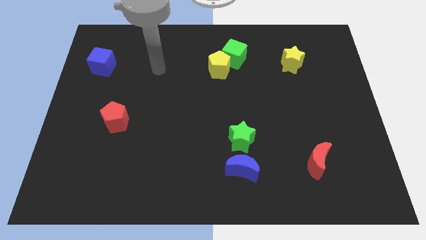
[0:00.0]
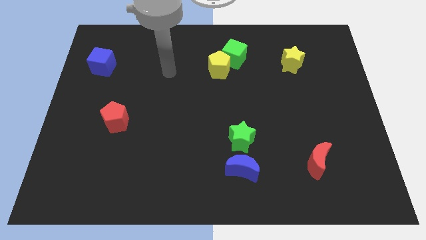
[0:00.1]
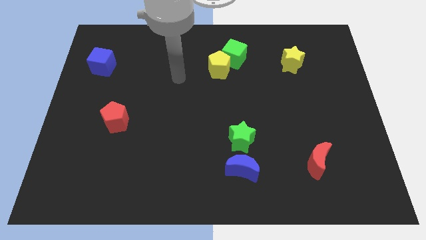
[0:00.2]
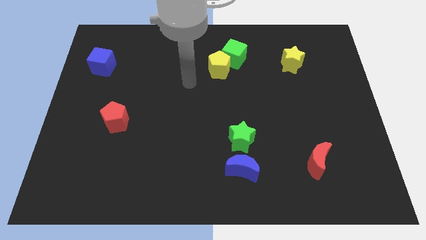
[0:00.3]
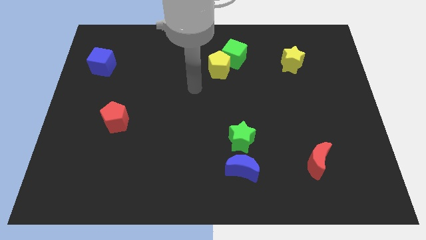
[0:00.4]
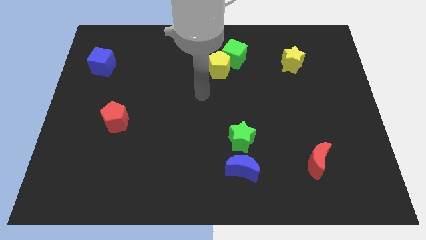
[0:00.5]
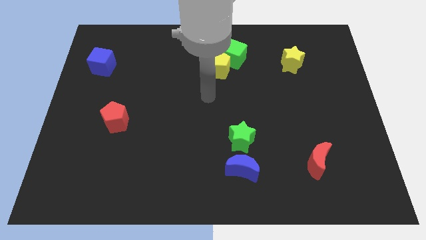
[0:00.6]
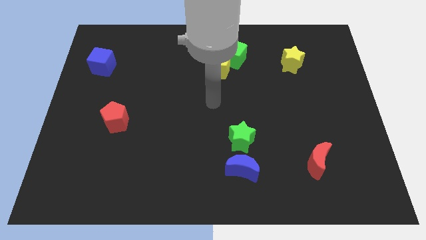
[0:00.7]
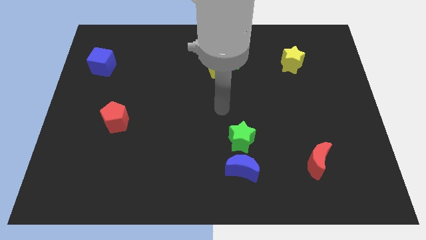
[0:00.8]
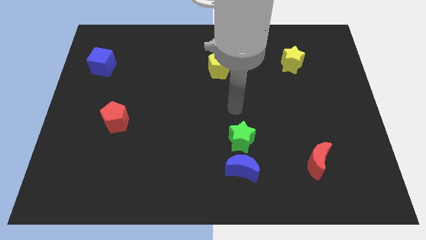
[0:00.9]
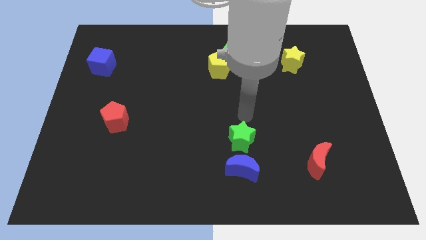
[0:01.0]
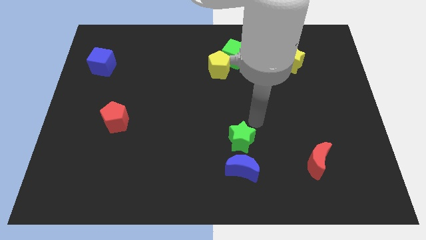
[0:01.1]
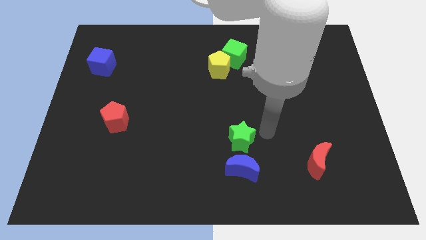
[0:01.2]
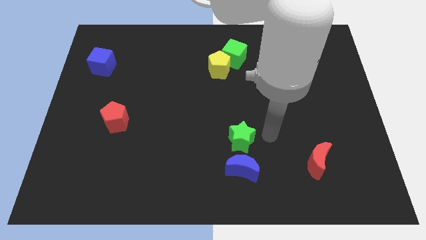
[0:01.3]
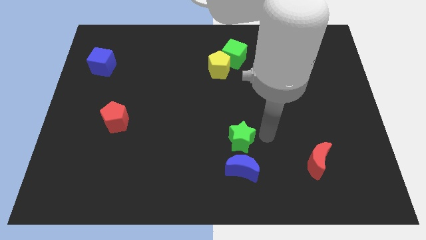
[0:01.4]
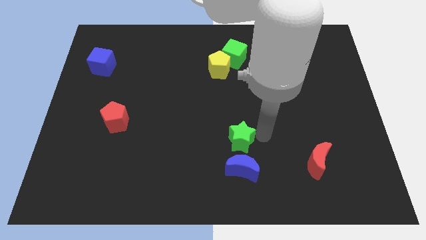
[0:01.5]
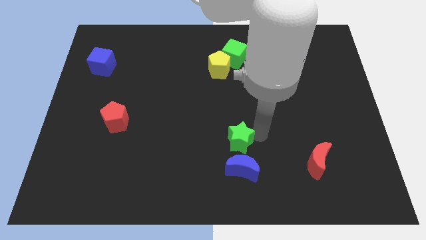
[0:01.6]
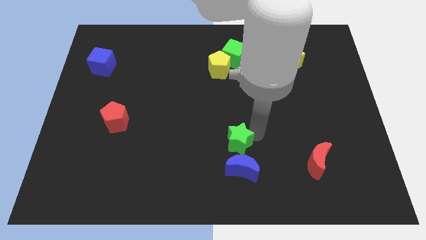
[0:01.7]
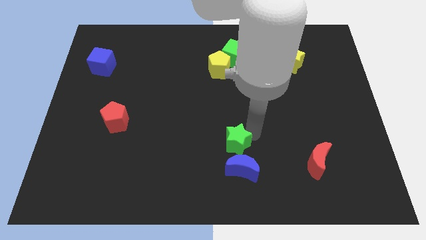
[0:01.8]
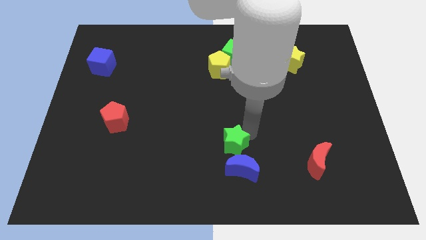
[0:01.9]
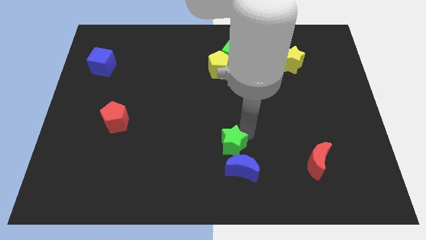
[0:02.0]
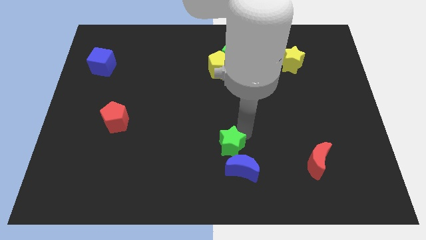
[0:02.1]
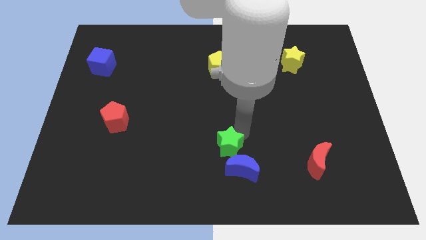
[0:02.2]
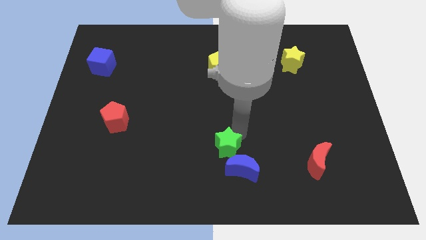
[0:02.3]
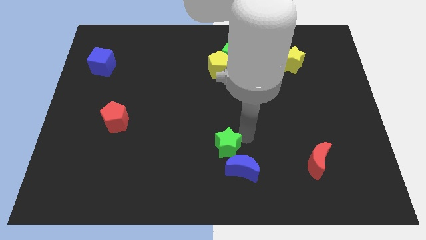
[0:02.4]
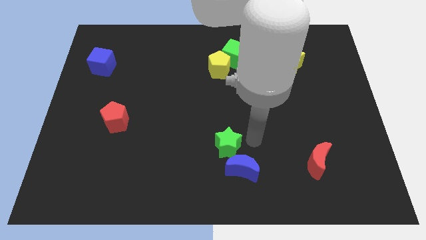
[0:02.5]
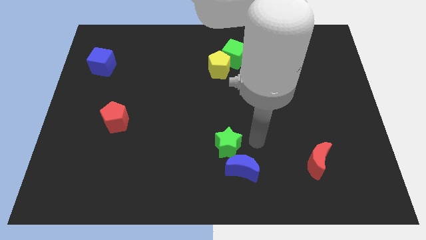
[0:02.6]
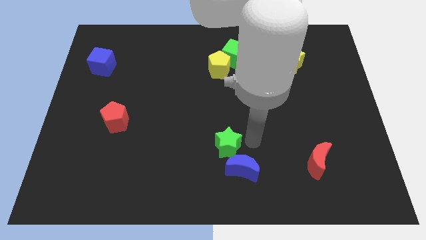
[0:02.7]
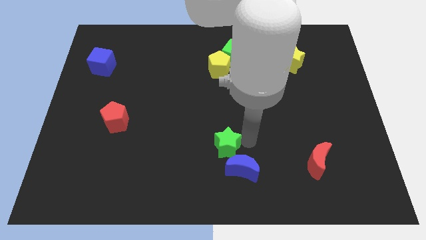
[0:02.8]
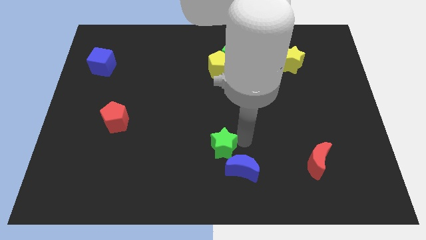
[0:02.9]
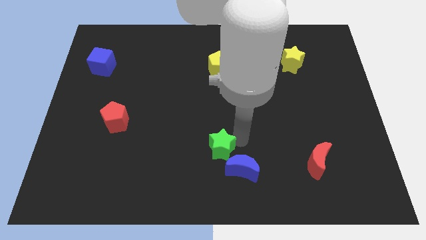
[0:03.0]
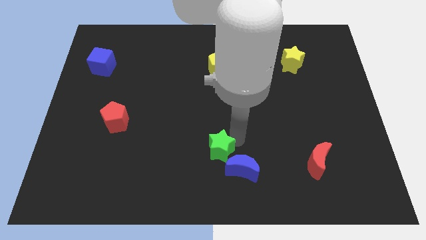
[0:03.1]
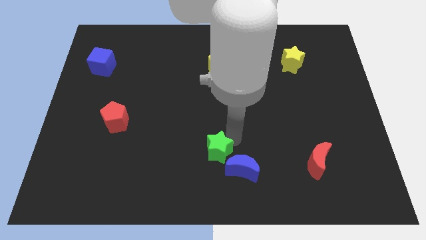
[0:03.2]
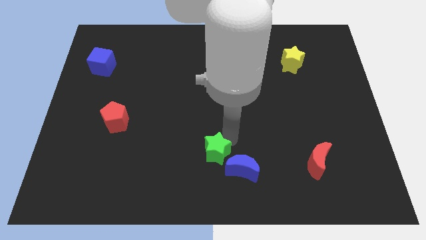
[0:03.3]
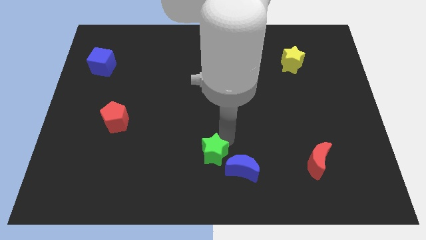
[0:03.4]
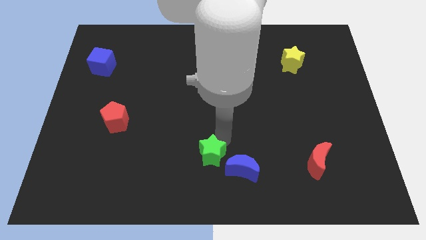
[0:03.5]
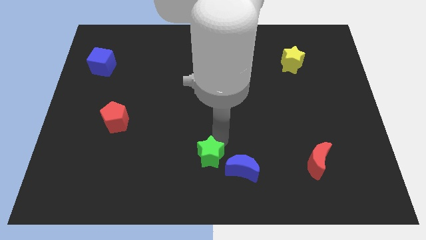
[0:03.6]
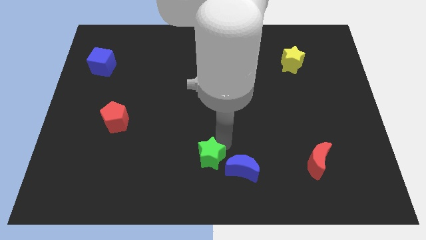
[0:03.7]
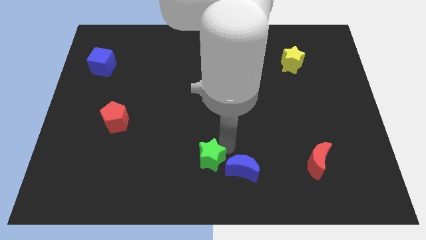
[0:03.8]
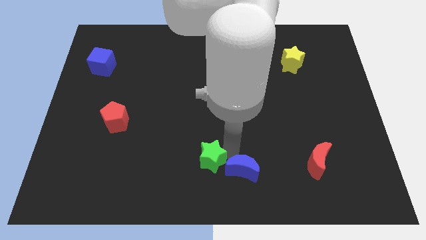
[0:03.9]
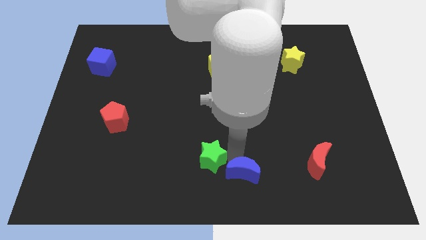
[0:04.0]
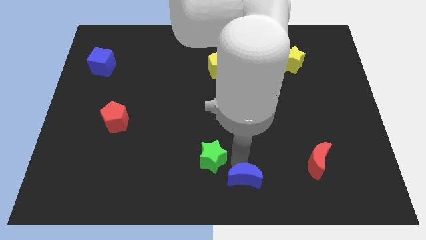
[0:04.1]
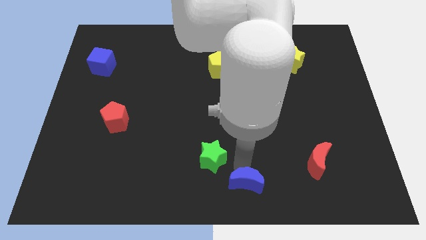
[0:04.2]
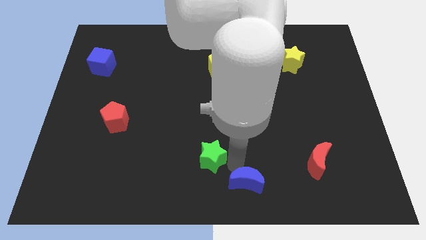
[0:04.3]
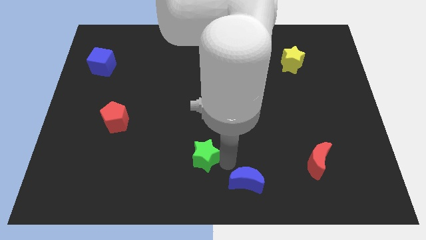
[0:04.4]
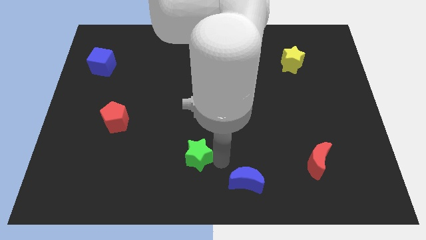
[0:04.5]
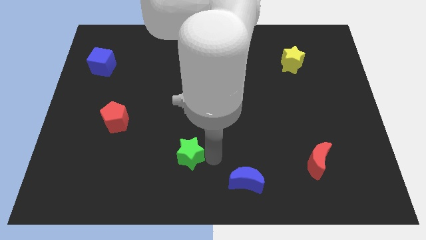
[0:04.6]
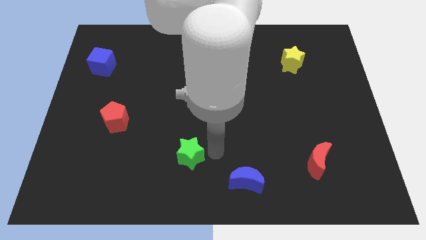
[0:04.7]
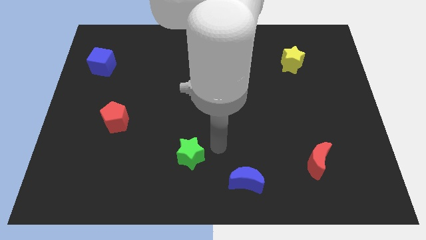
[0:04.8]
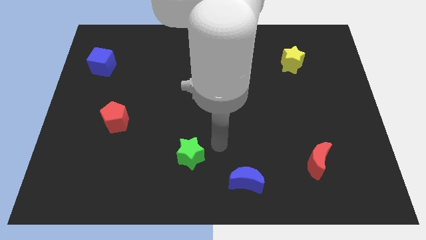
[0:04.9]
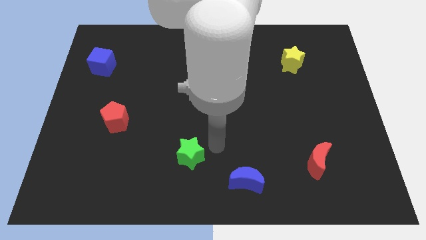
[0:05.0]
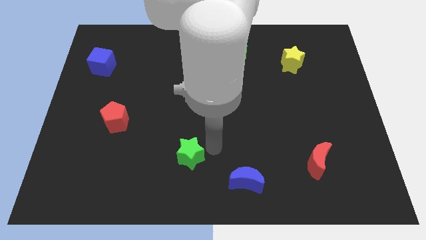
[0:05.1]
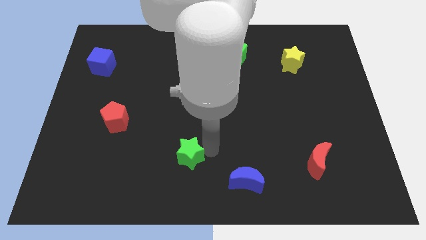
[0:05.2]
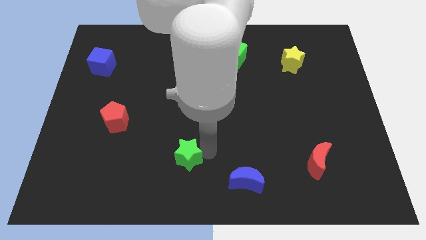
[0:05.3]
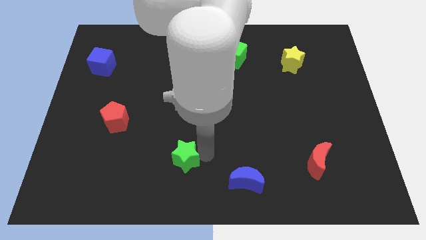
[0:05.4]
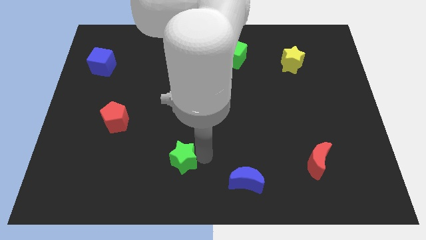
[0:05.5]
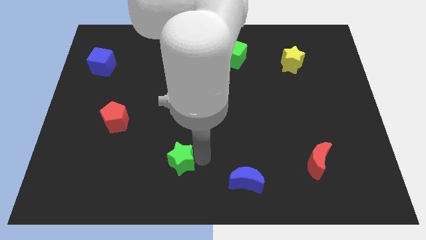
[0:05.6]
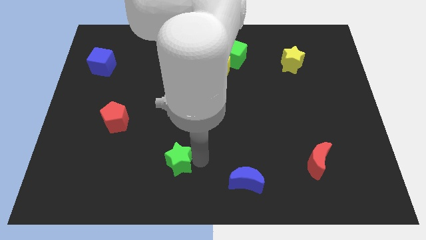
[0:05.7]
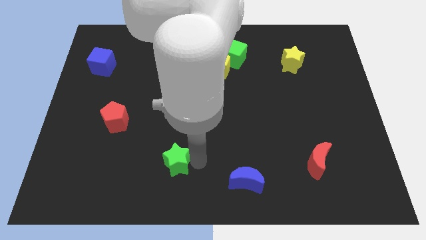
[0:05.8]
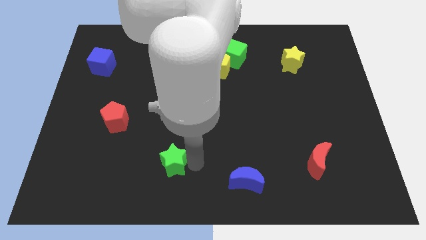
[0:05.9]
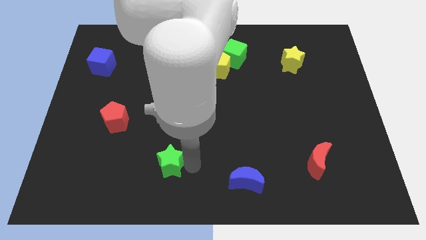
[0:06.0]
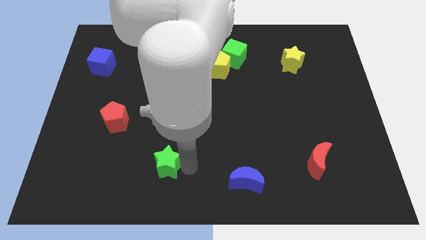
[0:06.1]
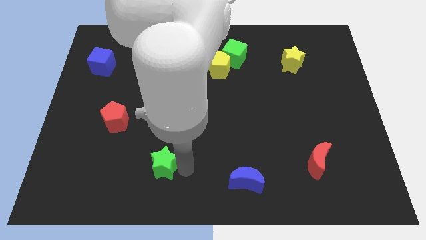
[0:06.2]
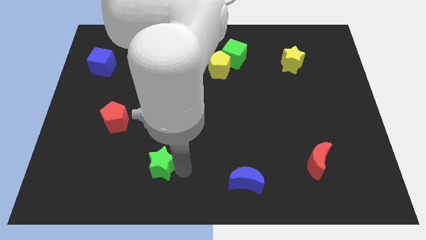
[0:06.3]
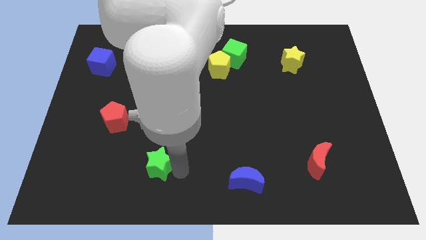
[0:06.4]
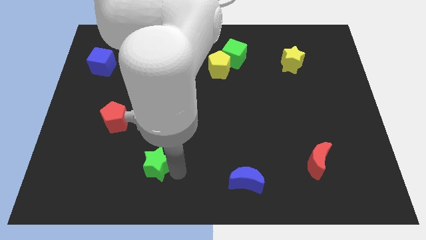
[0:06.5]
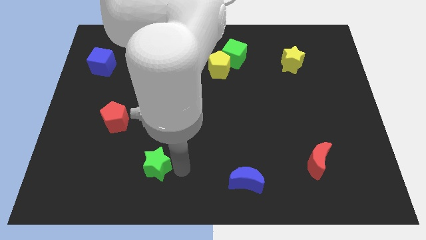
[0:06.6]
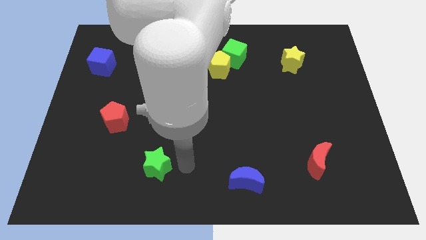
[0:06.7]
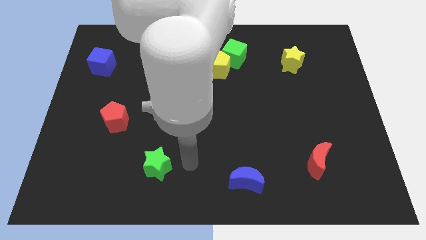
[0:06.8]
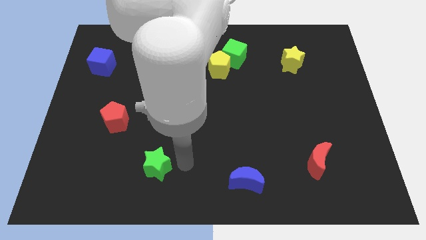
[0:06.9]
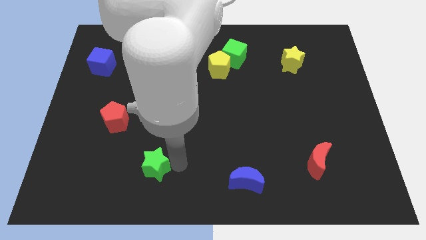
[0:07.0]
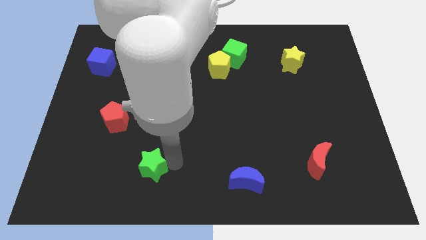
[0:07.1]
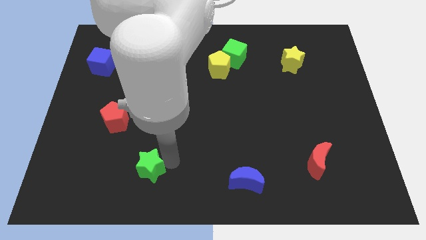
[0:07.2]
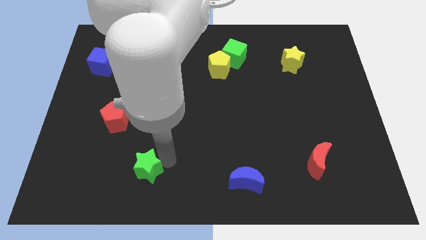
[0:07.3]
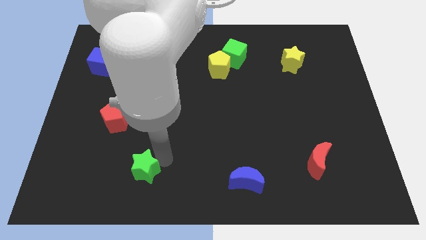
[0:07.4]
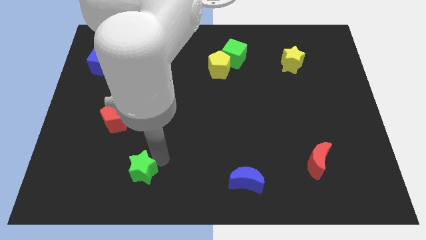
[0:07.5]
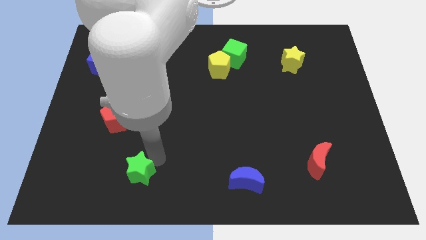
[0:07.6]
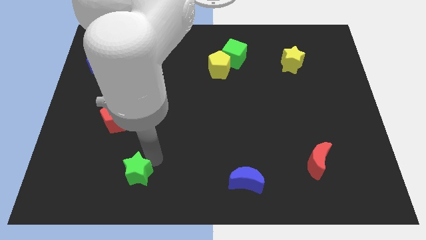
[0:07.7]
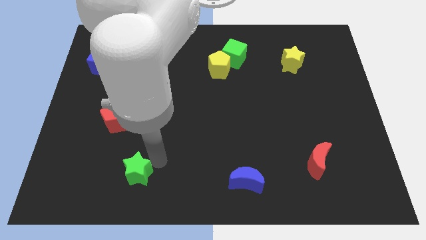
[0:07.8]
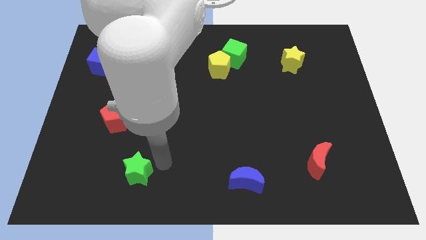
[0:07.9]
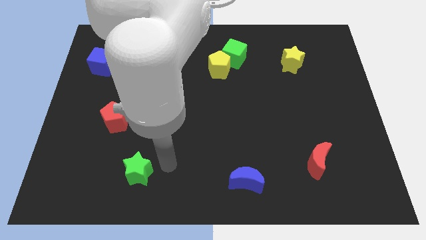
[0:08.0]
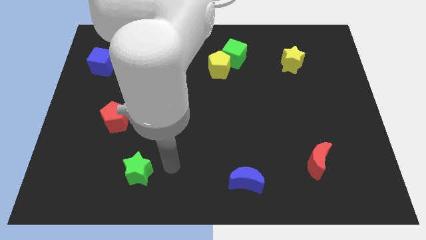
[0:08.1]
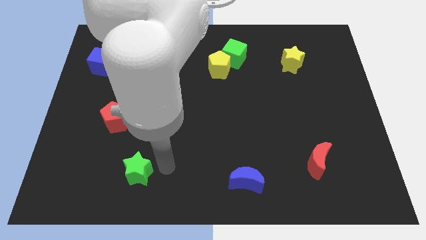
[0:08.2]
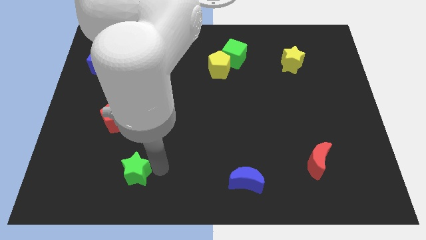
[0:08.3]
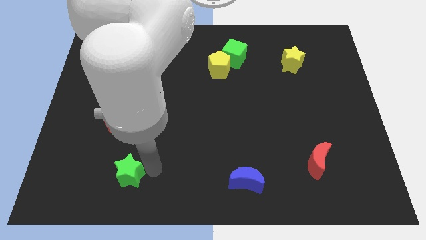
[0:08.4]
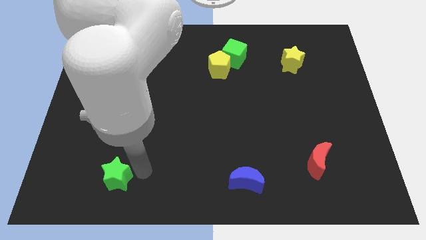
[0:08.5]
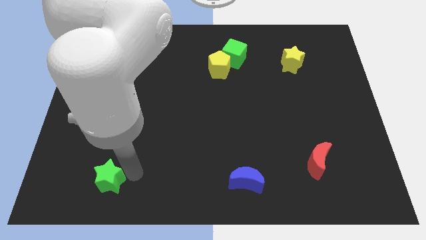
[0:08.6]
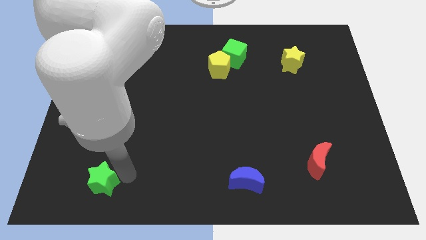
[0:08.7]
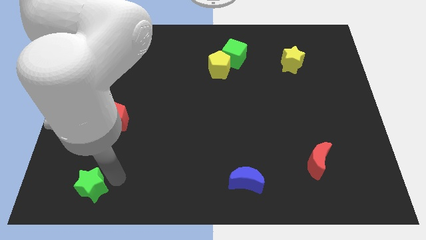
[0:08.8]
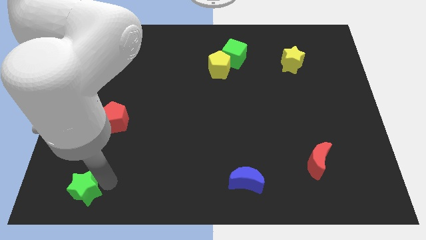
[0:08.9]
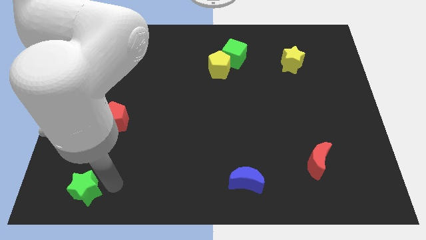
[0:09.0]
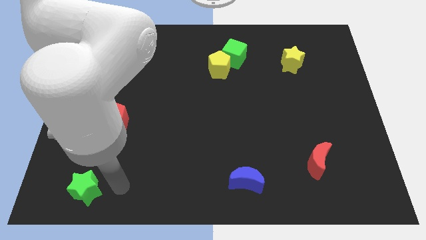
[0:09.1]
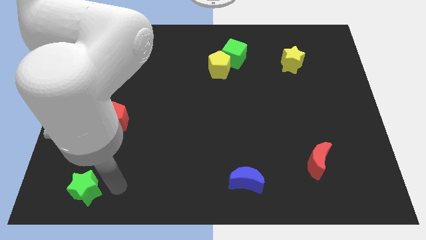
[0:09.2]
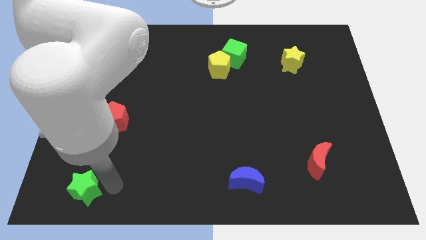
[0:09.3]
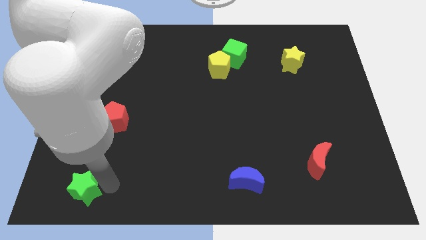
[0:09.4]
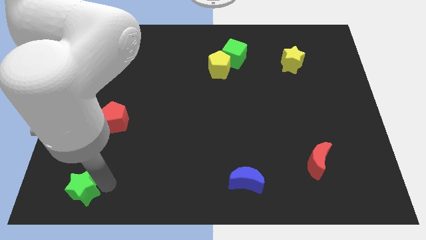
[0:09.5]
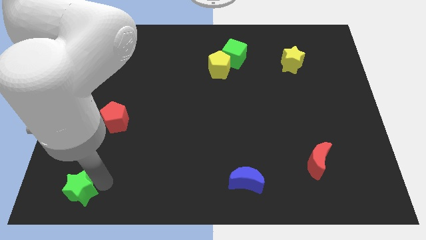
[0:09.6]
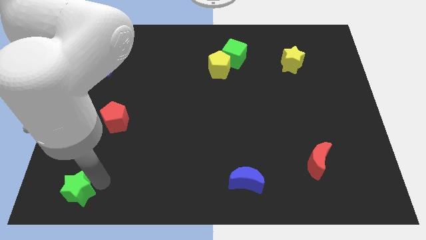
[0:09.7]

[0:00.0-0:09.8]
push the green star to the bottom left of the board
